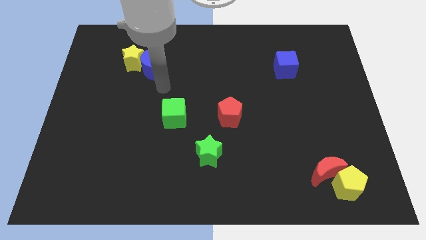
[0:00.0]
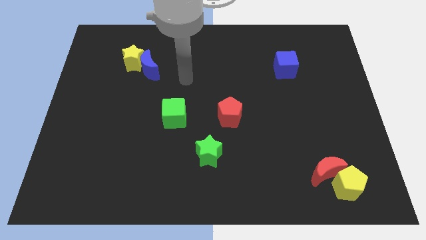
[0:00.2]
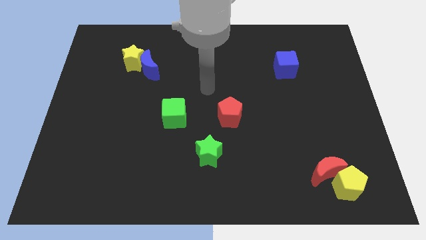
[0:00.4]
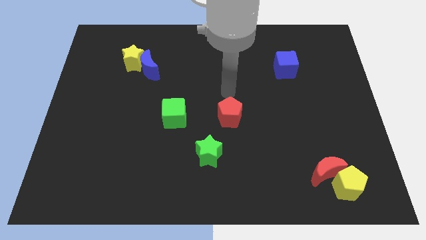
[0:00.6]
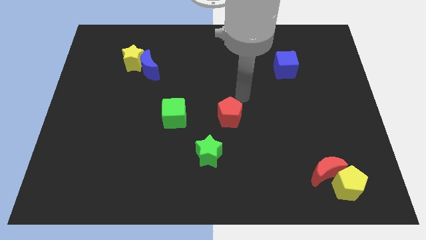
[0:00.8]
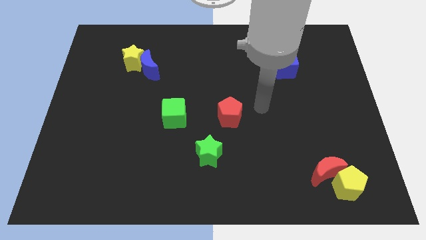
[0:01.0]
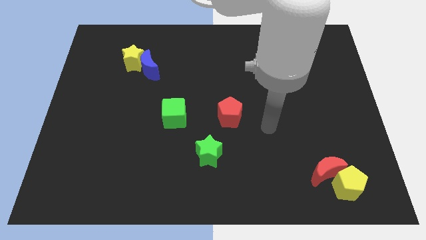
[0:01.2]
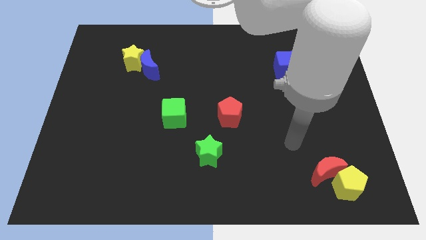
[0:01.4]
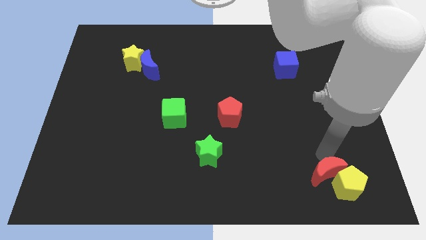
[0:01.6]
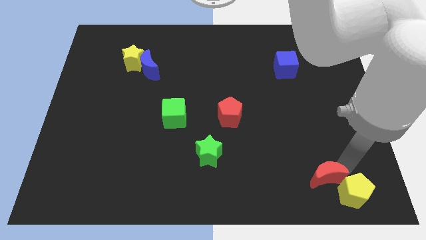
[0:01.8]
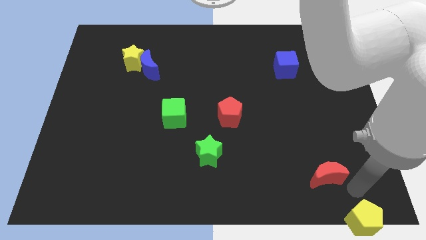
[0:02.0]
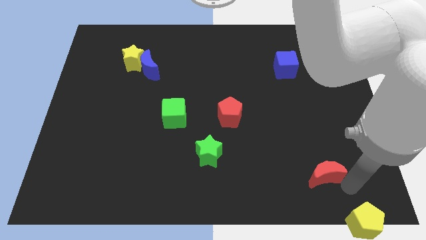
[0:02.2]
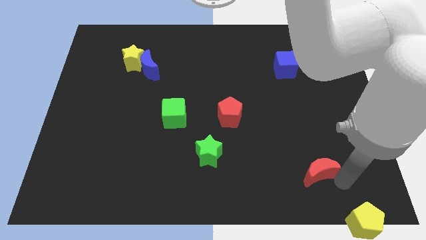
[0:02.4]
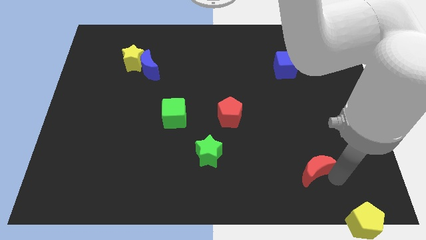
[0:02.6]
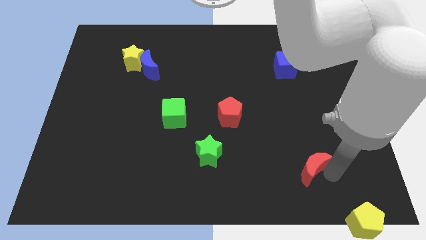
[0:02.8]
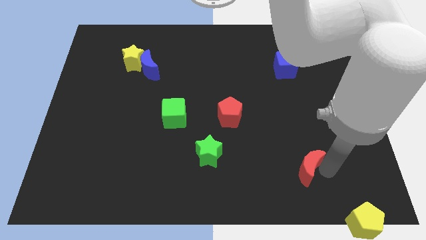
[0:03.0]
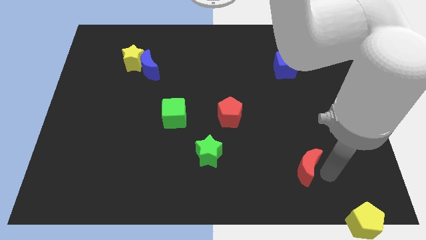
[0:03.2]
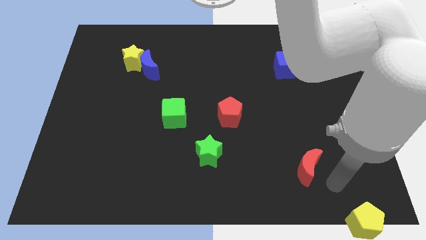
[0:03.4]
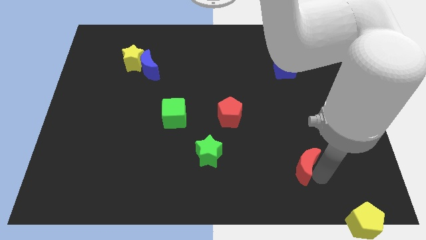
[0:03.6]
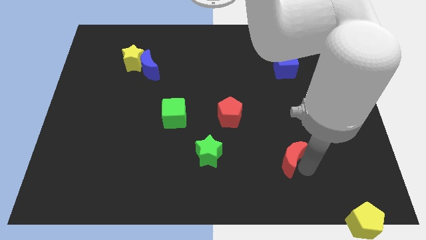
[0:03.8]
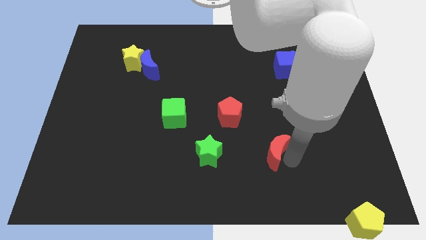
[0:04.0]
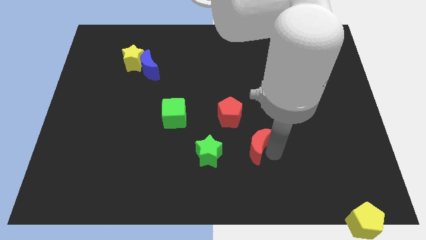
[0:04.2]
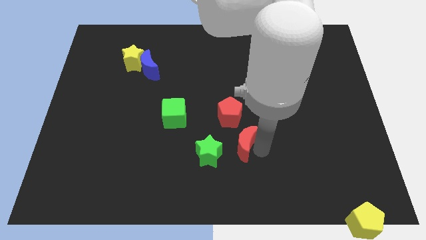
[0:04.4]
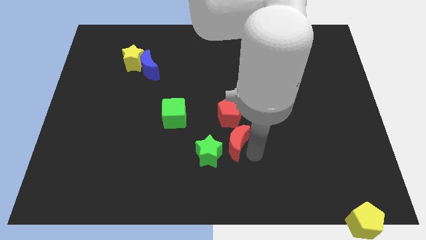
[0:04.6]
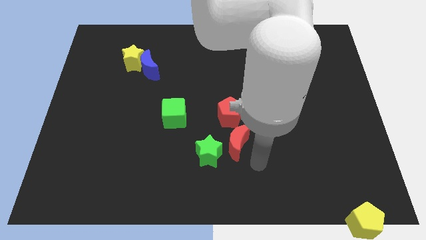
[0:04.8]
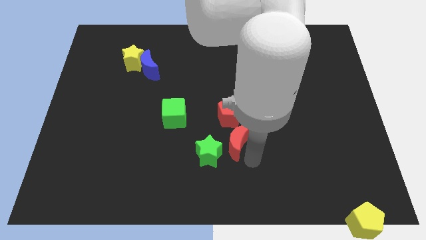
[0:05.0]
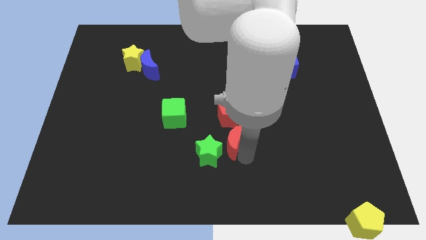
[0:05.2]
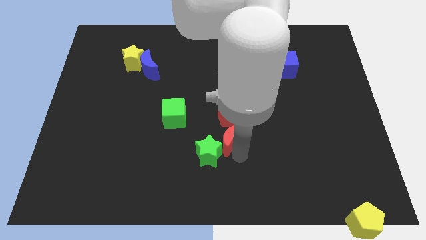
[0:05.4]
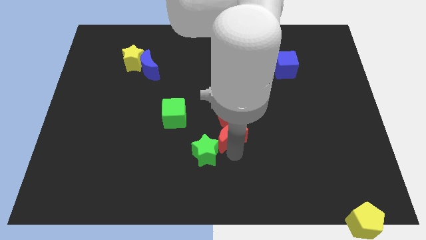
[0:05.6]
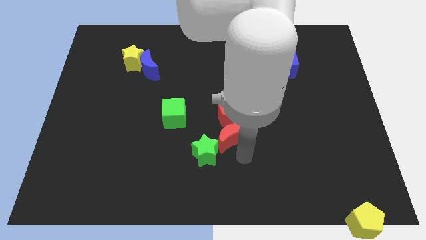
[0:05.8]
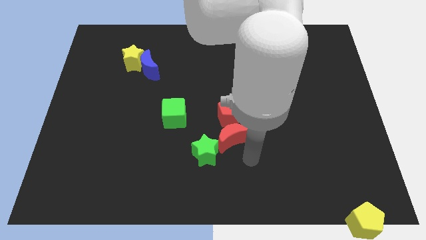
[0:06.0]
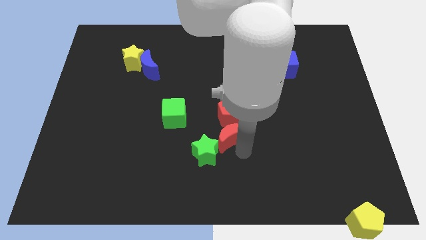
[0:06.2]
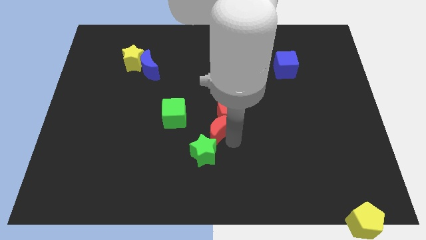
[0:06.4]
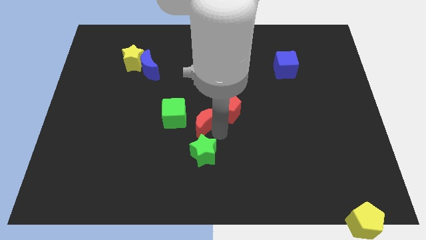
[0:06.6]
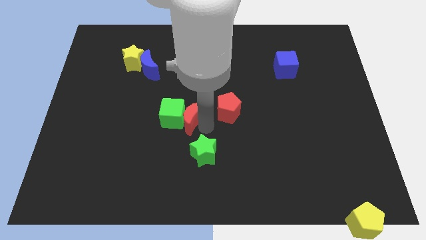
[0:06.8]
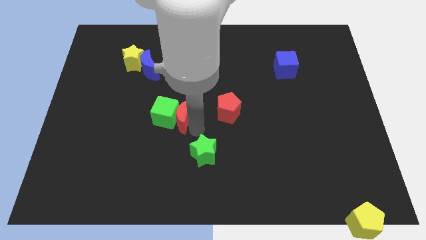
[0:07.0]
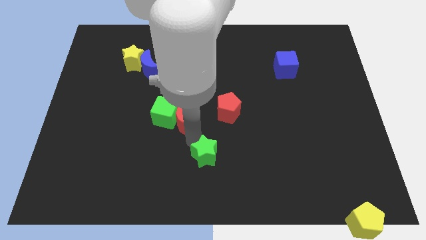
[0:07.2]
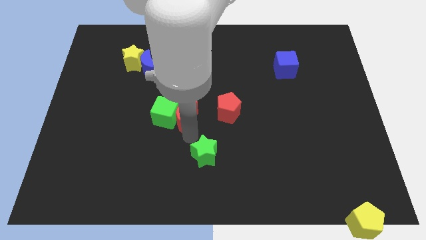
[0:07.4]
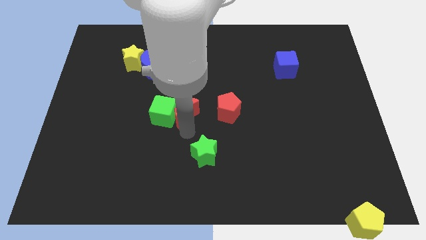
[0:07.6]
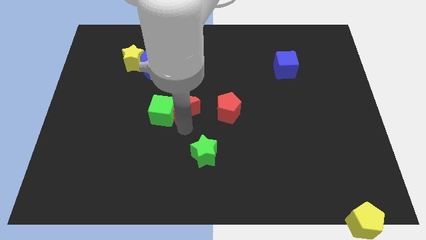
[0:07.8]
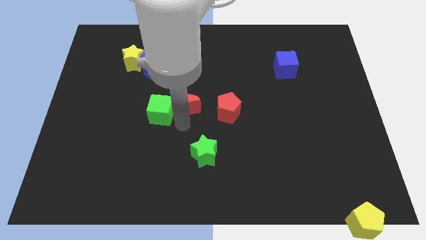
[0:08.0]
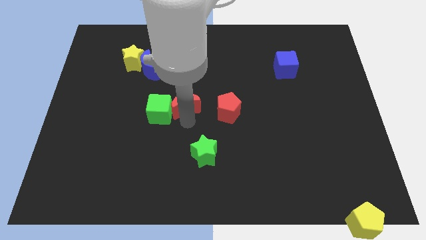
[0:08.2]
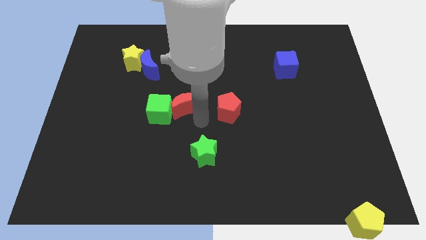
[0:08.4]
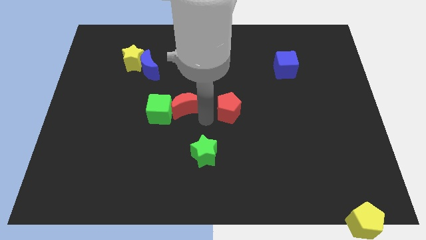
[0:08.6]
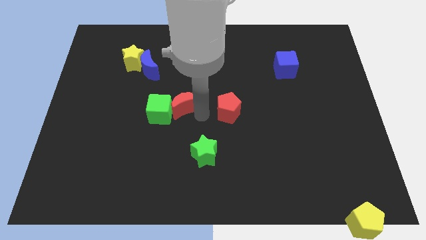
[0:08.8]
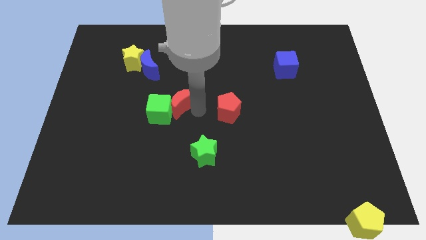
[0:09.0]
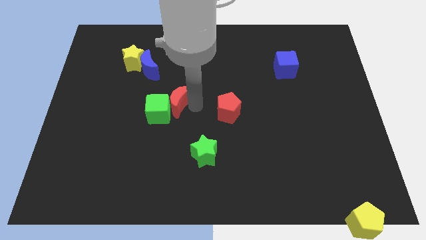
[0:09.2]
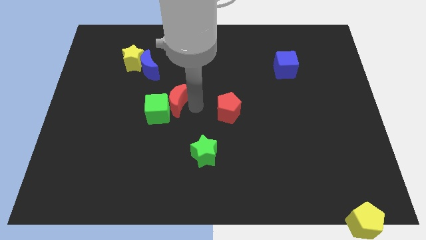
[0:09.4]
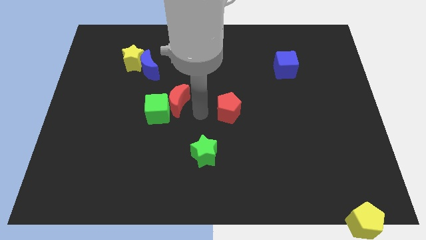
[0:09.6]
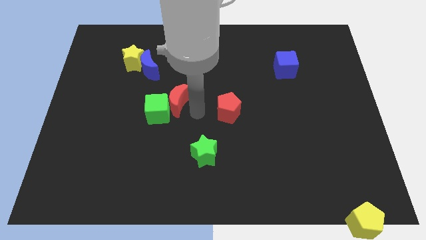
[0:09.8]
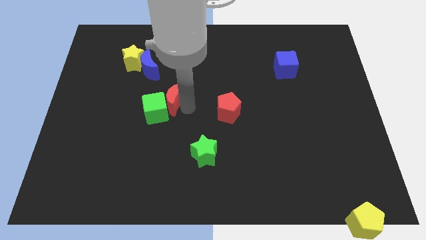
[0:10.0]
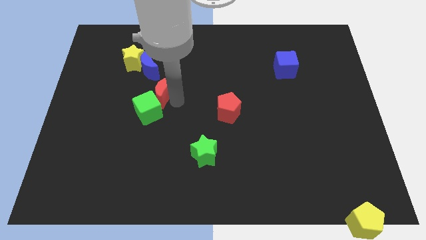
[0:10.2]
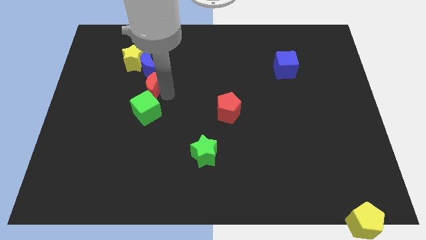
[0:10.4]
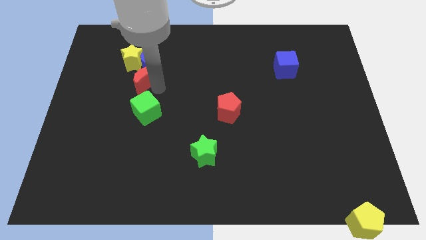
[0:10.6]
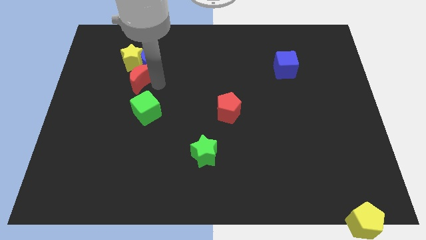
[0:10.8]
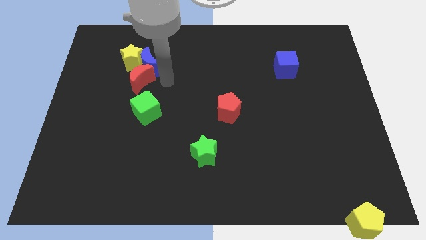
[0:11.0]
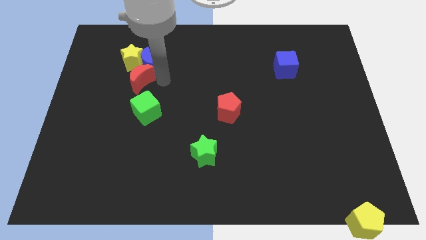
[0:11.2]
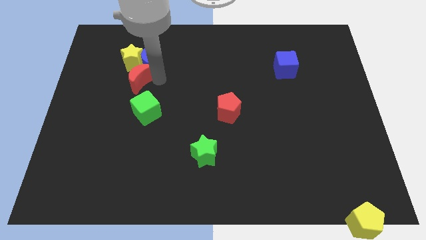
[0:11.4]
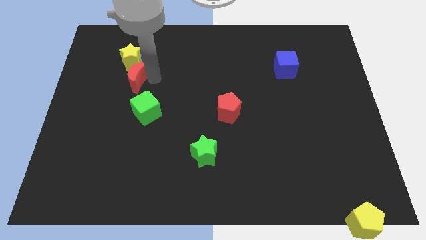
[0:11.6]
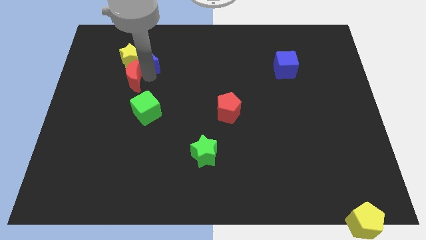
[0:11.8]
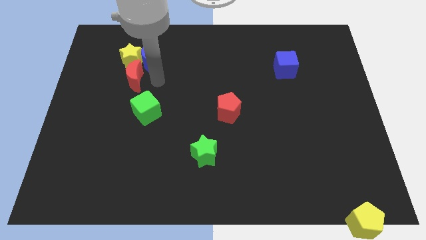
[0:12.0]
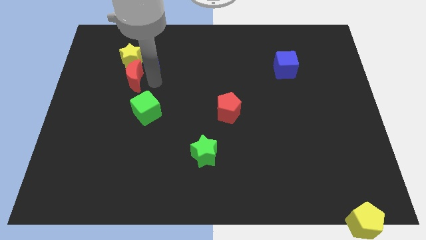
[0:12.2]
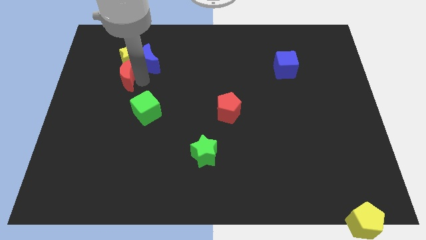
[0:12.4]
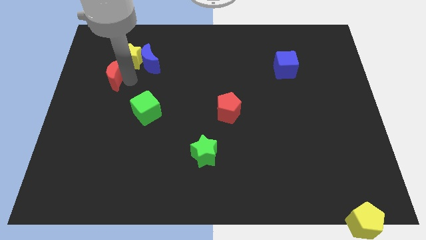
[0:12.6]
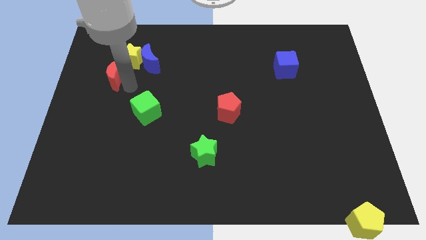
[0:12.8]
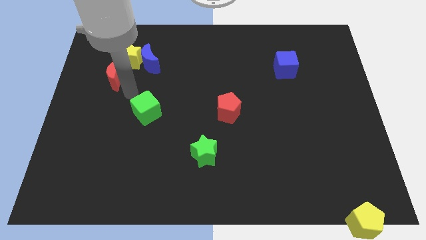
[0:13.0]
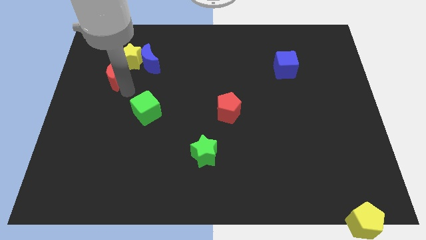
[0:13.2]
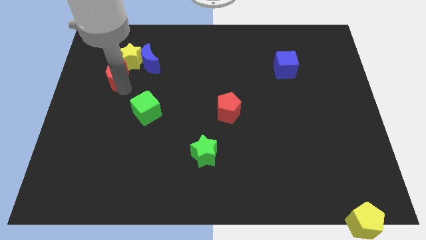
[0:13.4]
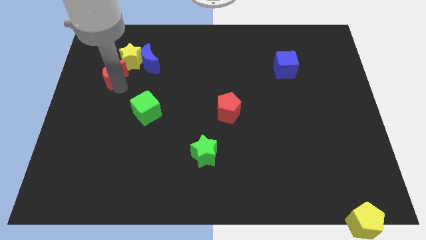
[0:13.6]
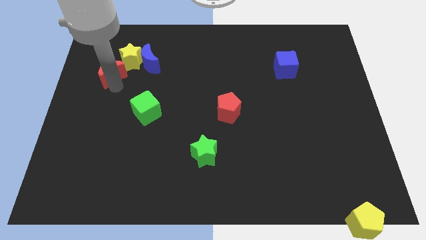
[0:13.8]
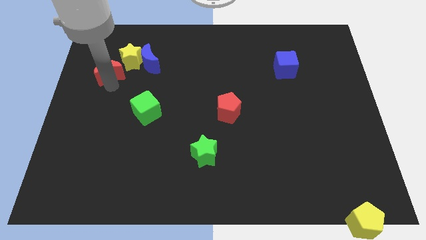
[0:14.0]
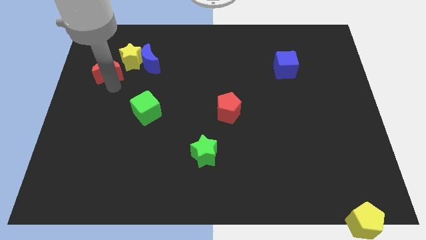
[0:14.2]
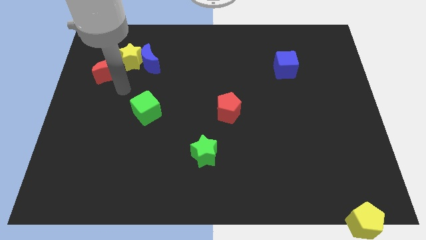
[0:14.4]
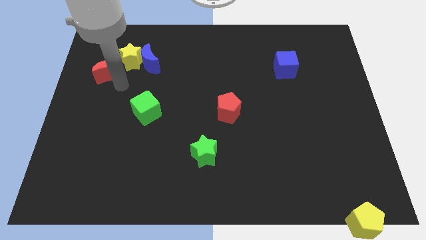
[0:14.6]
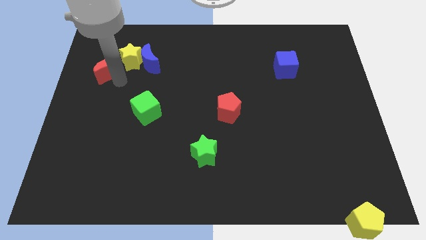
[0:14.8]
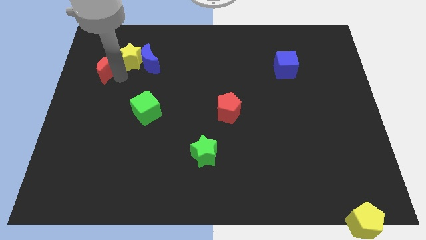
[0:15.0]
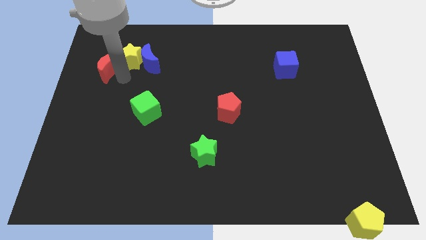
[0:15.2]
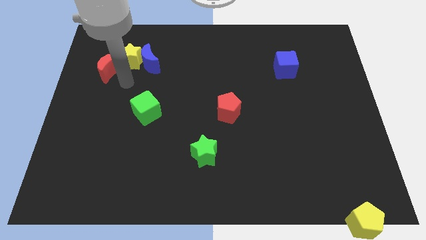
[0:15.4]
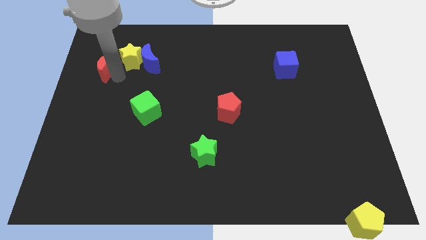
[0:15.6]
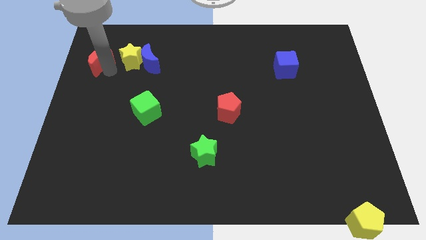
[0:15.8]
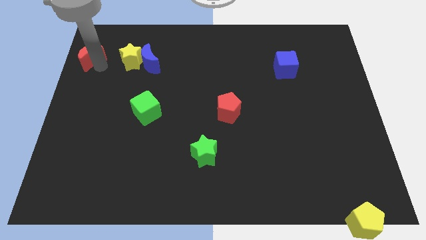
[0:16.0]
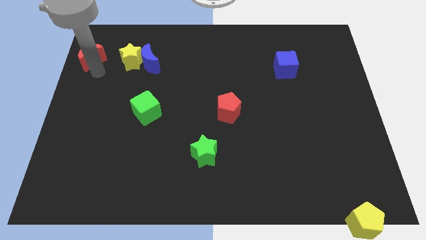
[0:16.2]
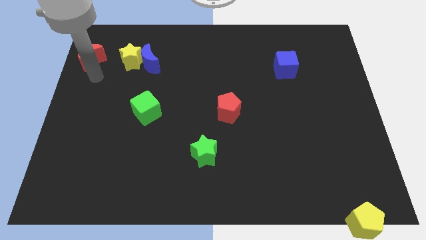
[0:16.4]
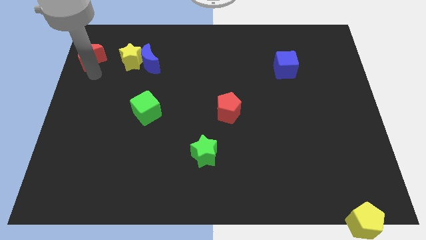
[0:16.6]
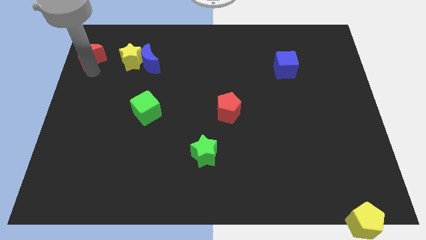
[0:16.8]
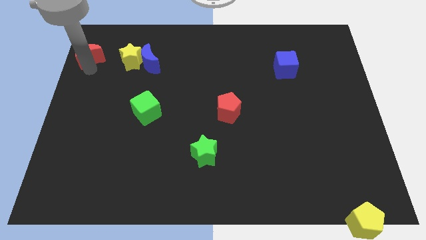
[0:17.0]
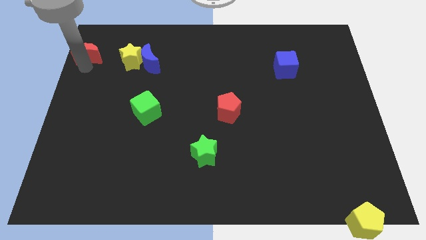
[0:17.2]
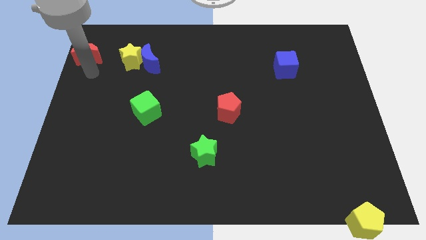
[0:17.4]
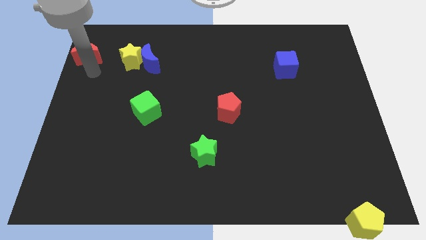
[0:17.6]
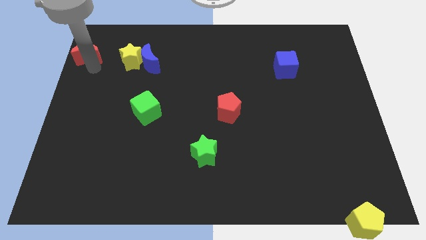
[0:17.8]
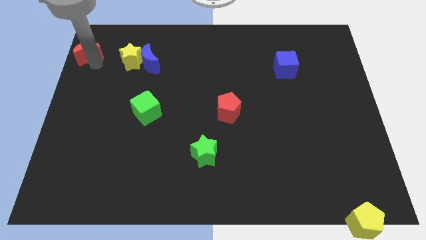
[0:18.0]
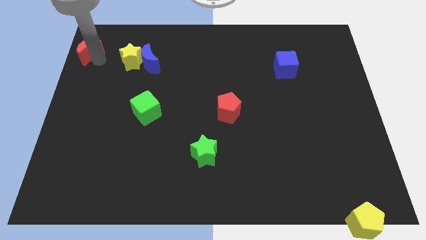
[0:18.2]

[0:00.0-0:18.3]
put the red moon to the top left of the board
